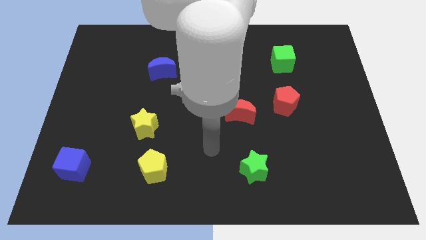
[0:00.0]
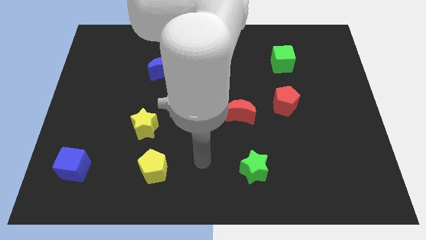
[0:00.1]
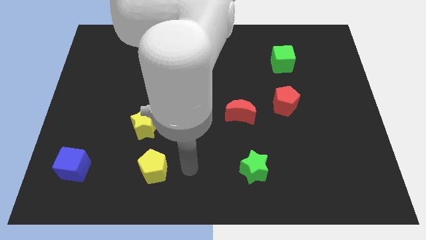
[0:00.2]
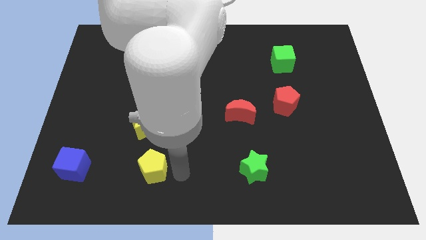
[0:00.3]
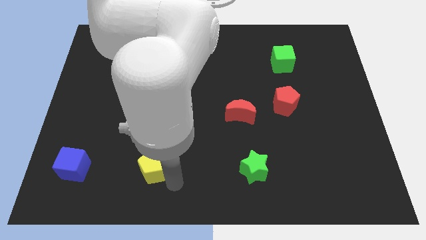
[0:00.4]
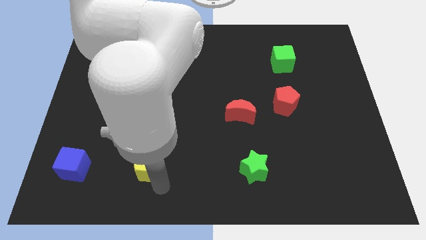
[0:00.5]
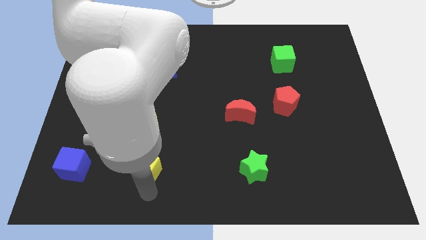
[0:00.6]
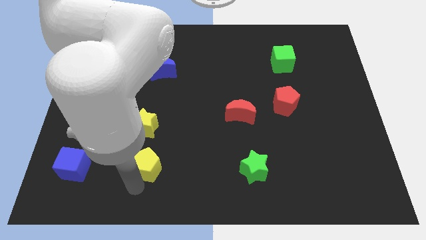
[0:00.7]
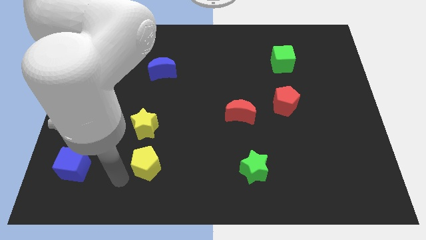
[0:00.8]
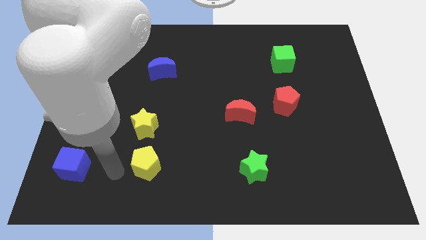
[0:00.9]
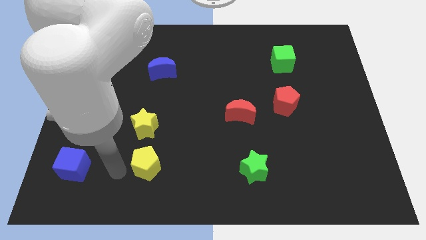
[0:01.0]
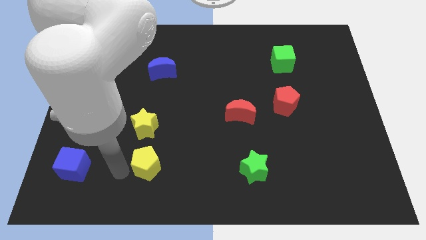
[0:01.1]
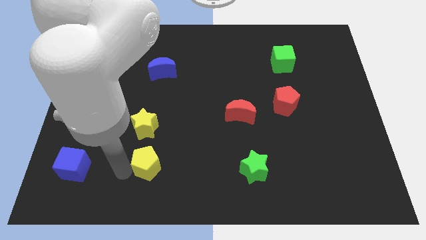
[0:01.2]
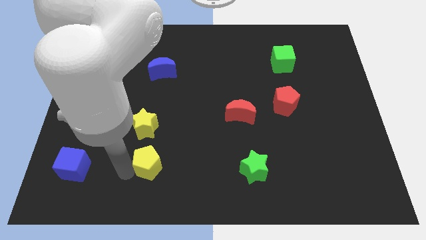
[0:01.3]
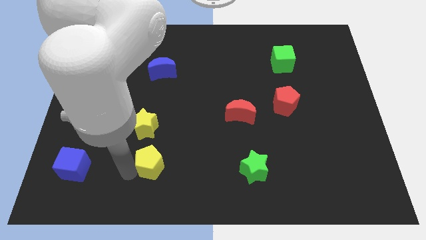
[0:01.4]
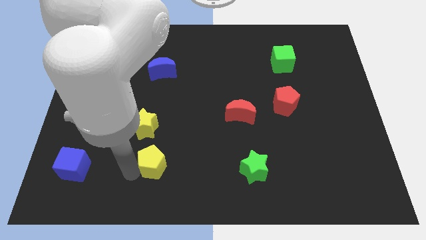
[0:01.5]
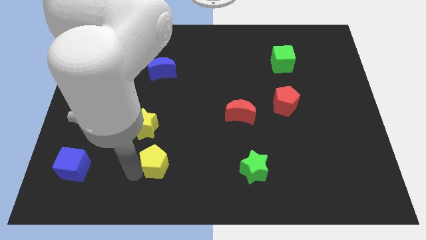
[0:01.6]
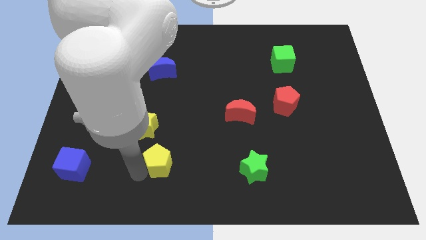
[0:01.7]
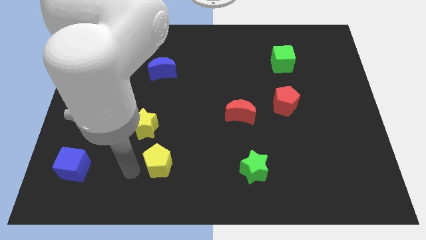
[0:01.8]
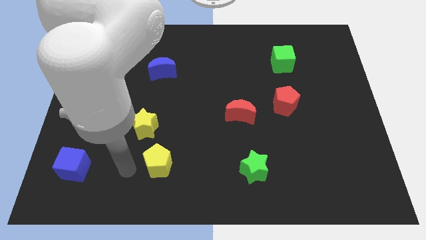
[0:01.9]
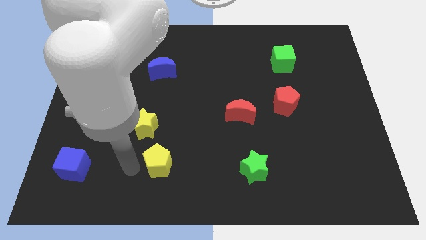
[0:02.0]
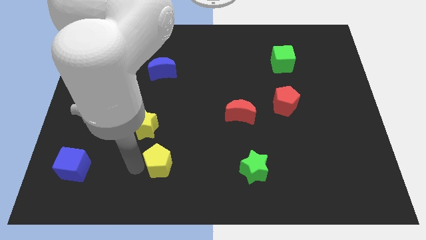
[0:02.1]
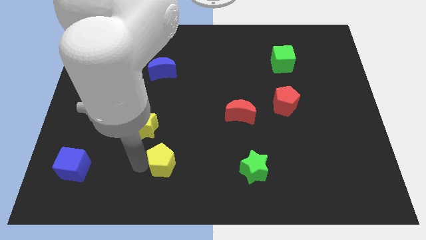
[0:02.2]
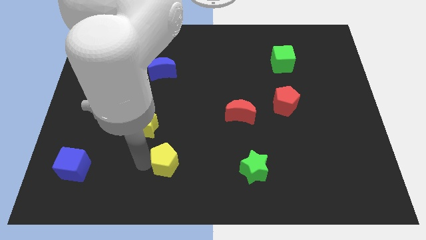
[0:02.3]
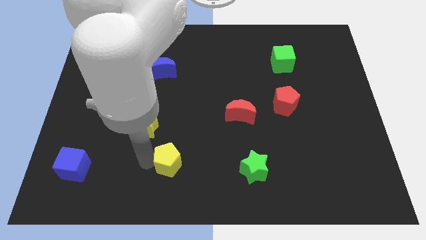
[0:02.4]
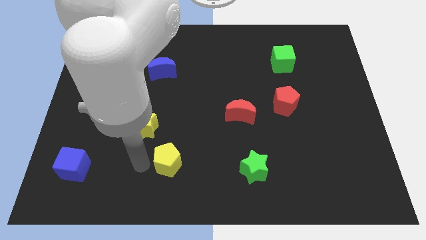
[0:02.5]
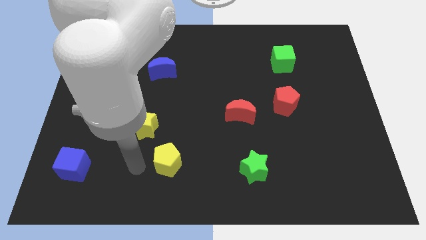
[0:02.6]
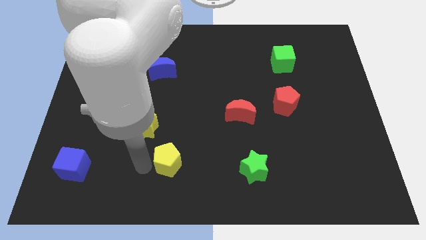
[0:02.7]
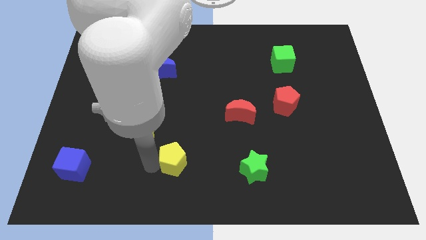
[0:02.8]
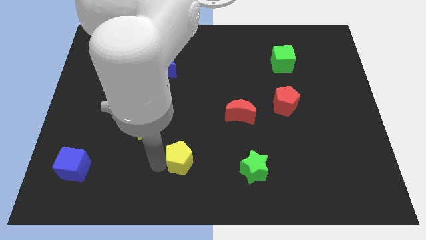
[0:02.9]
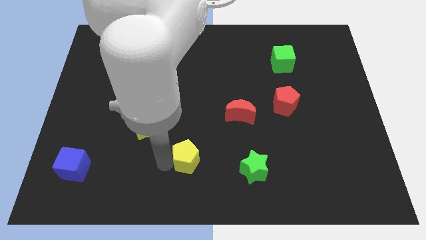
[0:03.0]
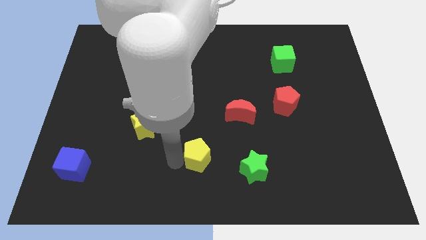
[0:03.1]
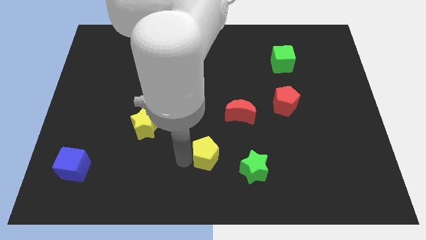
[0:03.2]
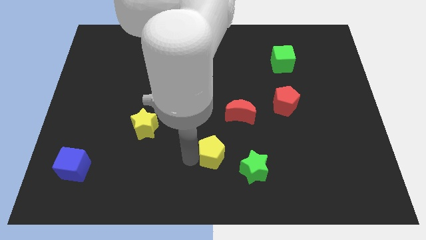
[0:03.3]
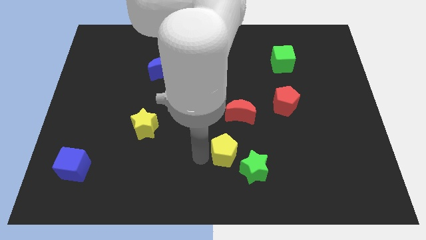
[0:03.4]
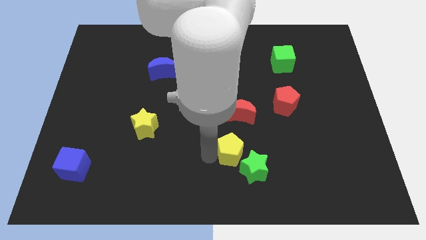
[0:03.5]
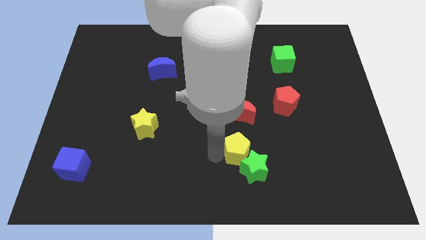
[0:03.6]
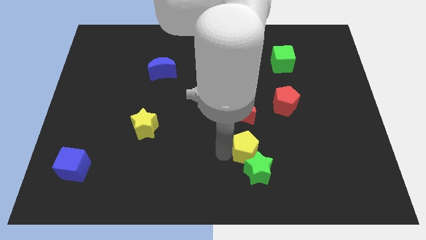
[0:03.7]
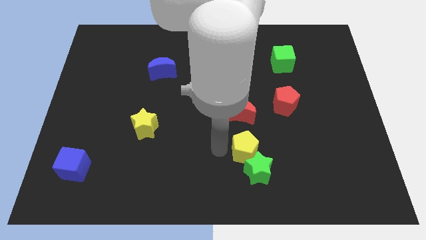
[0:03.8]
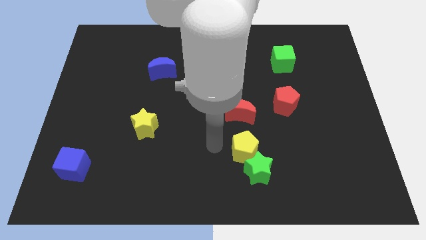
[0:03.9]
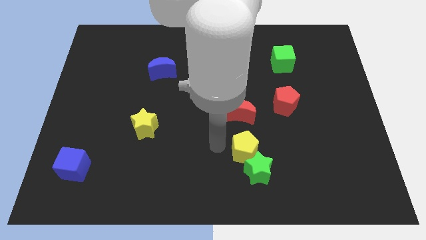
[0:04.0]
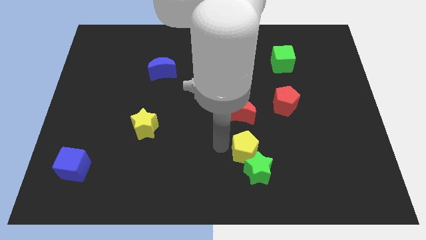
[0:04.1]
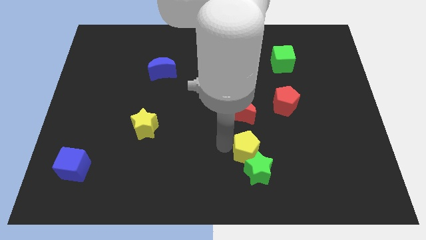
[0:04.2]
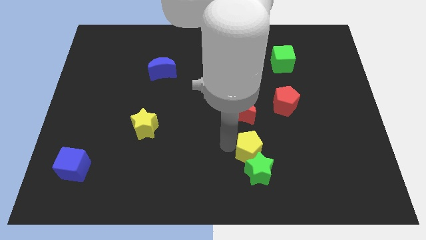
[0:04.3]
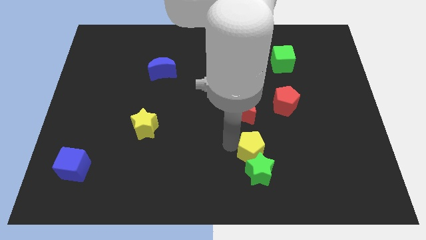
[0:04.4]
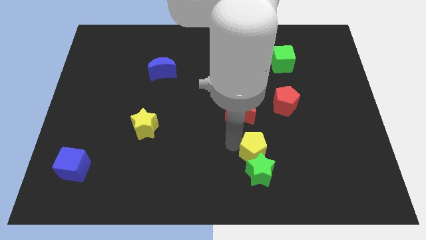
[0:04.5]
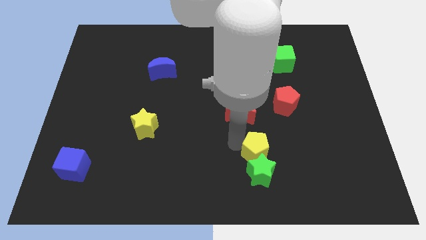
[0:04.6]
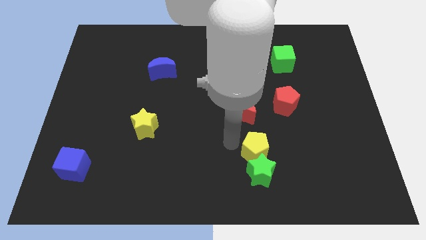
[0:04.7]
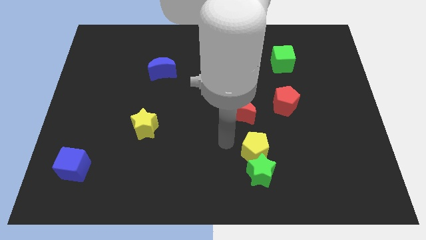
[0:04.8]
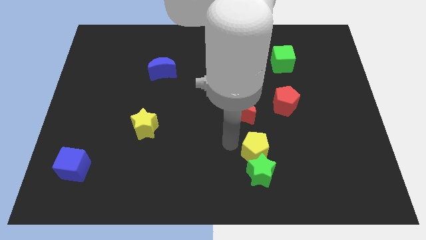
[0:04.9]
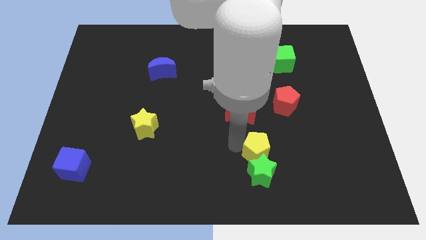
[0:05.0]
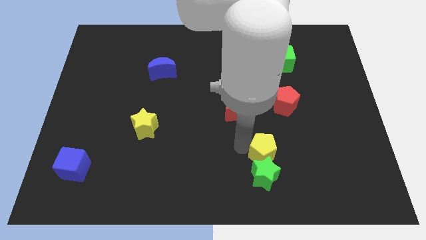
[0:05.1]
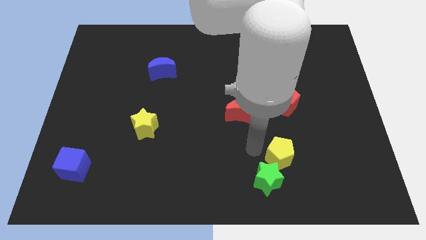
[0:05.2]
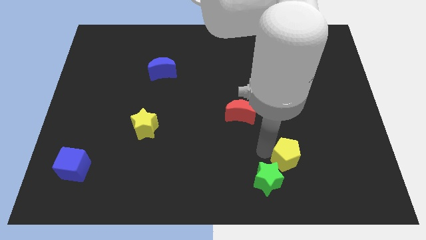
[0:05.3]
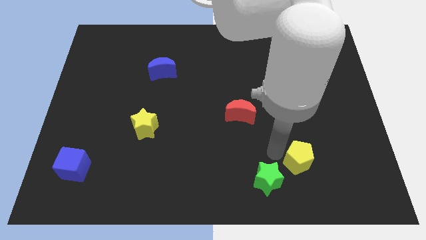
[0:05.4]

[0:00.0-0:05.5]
move the yellow pentagon to the right side of the green star

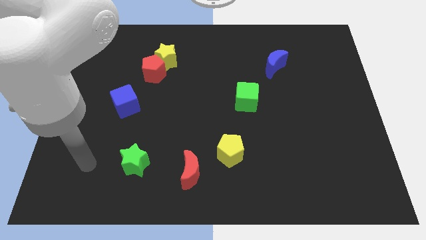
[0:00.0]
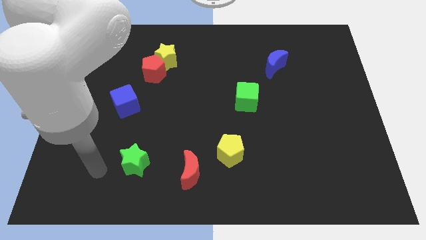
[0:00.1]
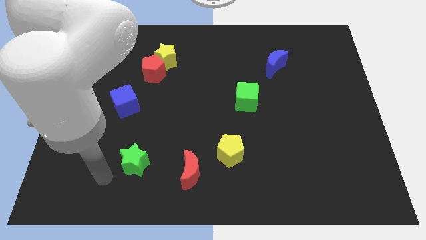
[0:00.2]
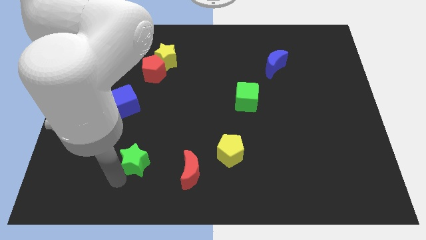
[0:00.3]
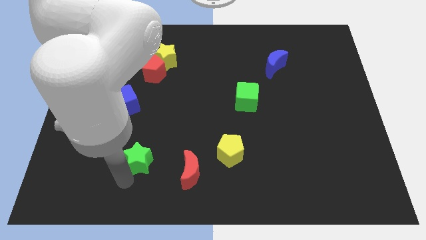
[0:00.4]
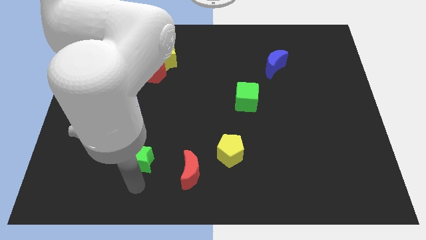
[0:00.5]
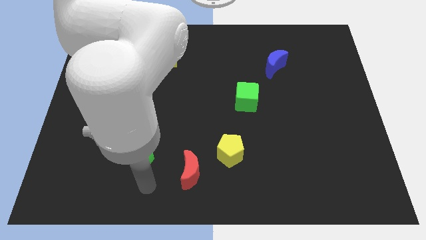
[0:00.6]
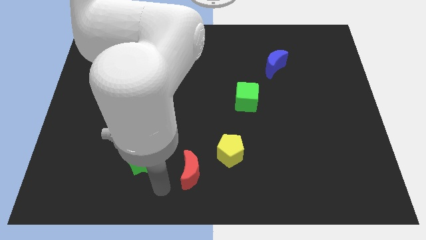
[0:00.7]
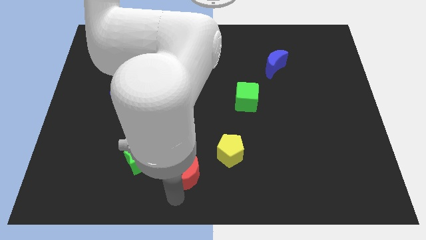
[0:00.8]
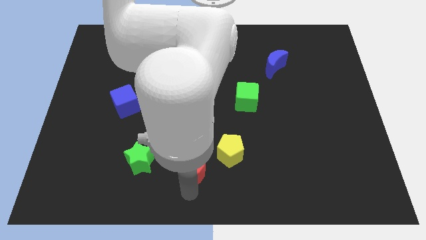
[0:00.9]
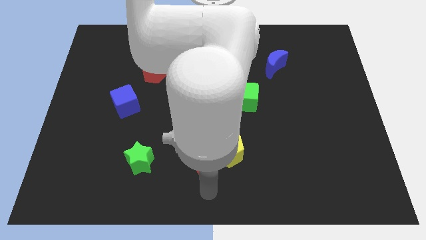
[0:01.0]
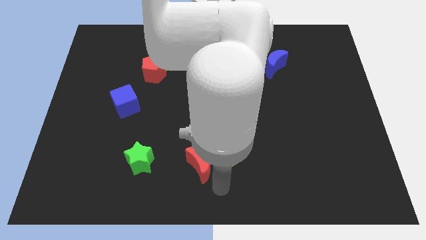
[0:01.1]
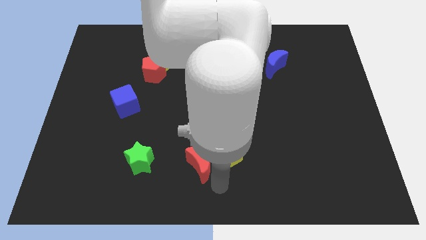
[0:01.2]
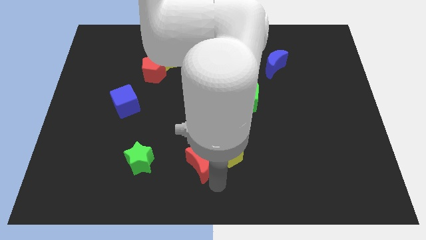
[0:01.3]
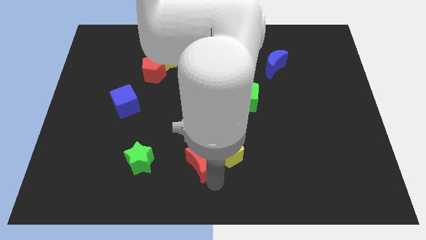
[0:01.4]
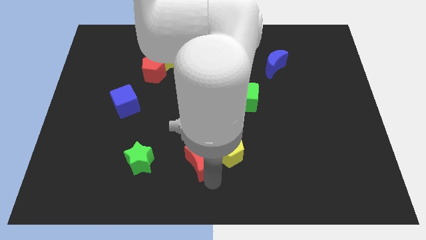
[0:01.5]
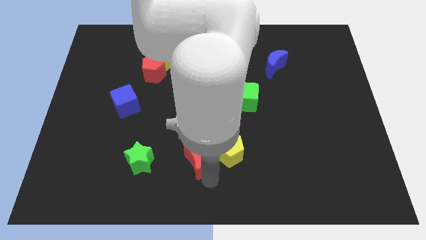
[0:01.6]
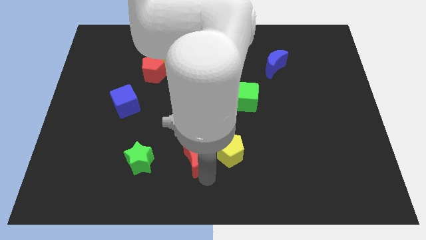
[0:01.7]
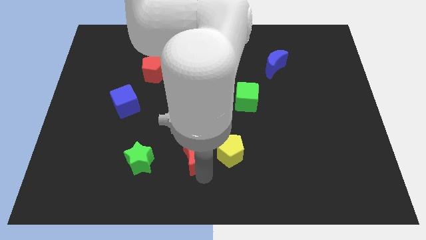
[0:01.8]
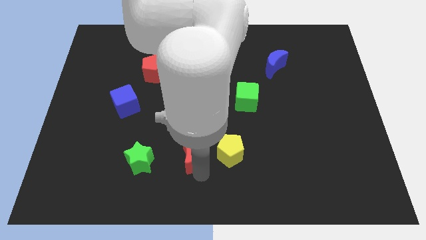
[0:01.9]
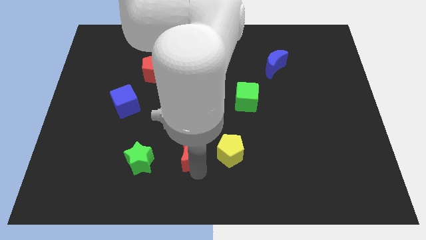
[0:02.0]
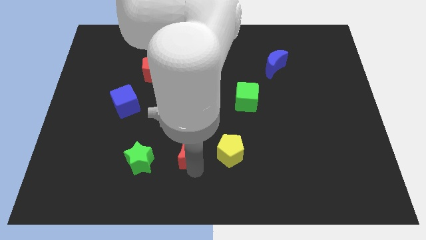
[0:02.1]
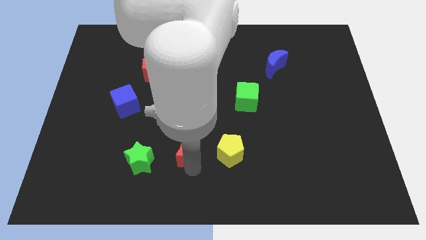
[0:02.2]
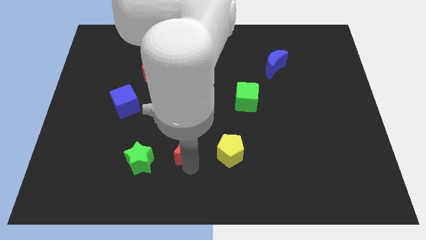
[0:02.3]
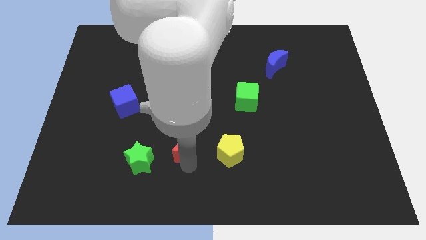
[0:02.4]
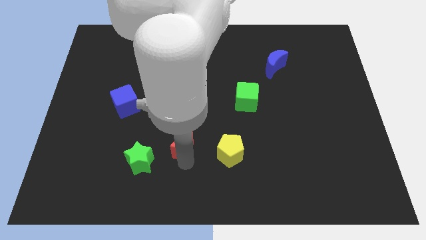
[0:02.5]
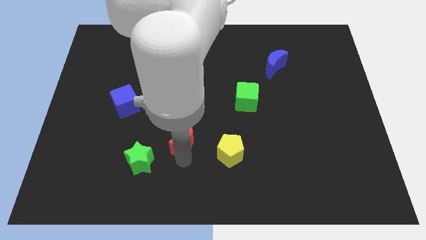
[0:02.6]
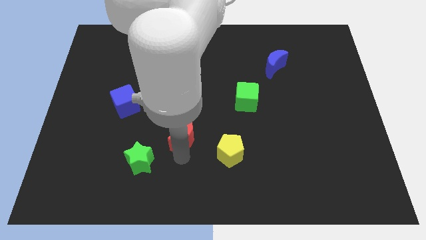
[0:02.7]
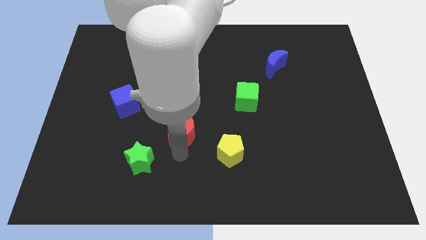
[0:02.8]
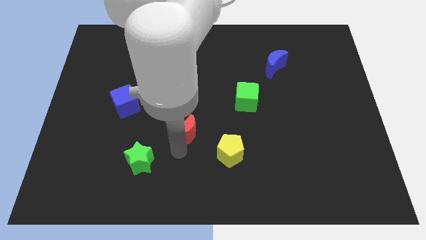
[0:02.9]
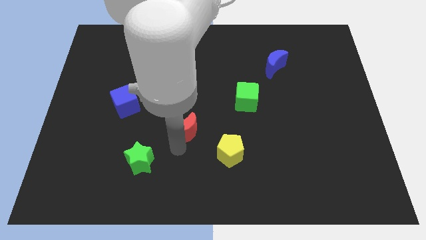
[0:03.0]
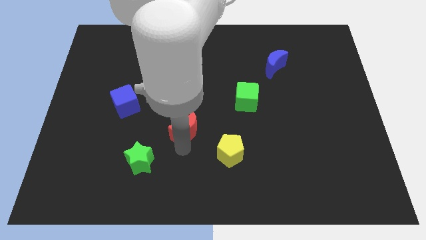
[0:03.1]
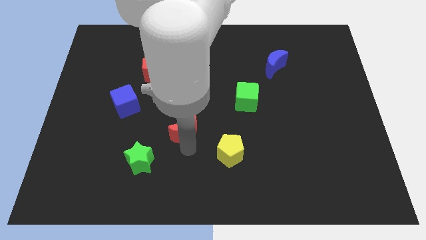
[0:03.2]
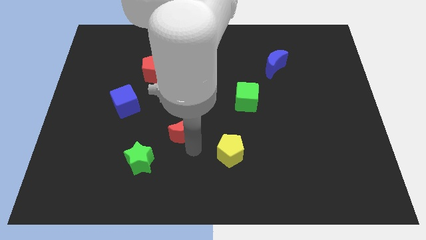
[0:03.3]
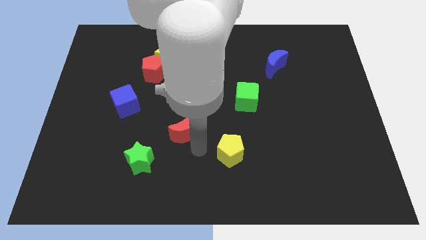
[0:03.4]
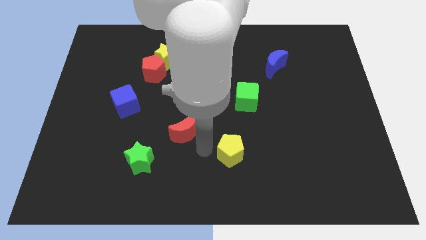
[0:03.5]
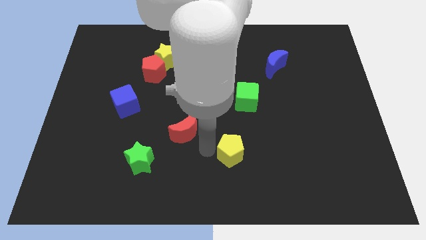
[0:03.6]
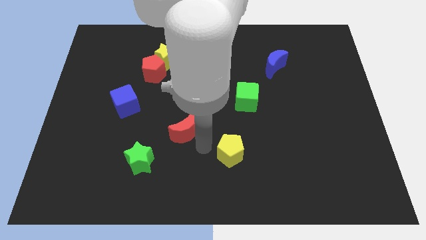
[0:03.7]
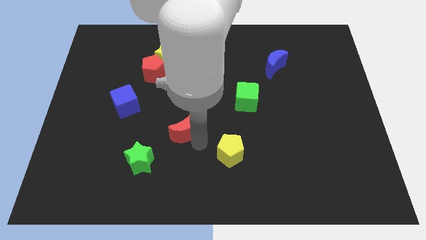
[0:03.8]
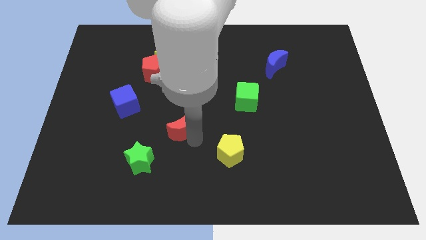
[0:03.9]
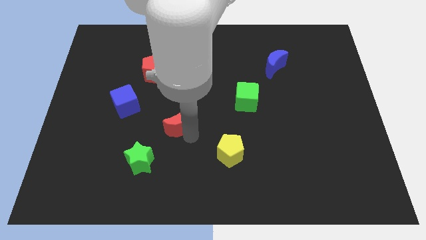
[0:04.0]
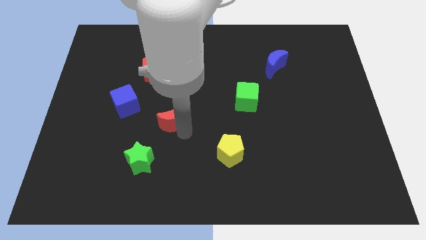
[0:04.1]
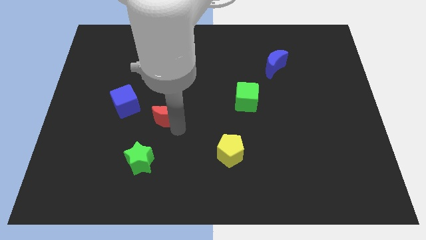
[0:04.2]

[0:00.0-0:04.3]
slide the red moon just right of the blue cube
